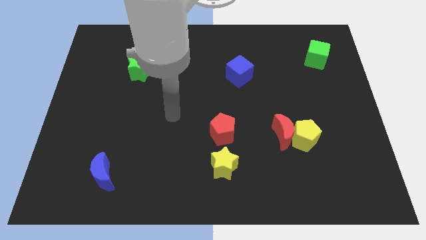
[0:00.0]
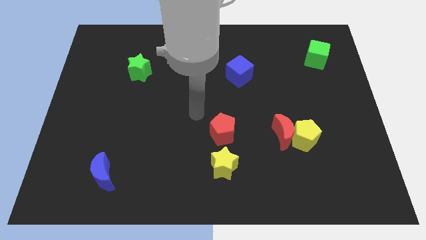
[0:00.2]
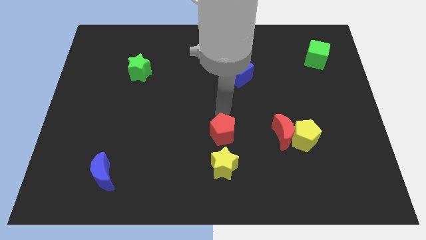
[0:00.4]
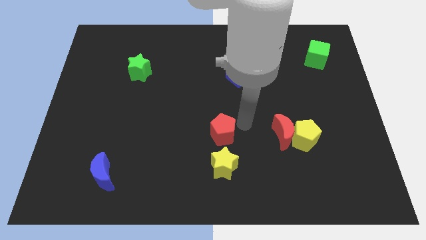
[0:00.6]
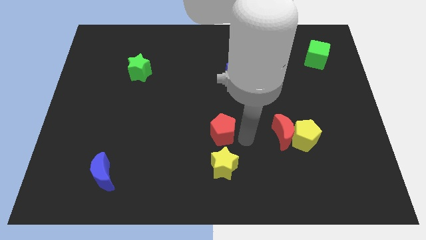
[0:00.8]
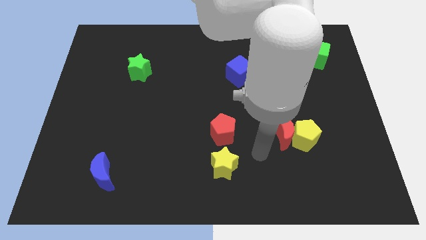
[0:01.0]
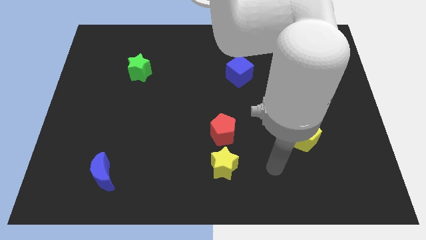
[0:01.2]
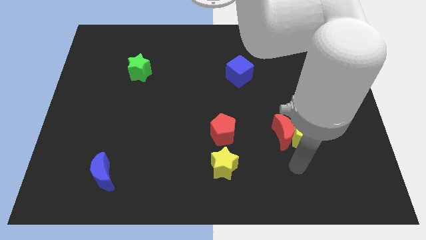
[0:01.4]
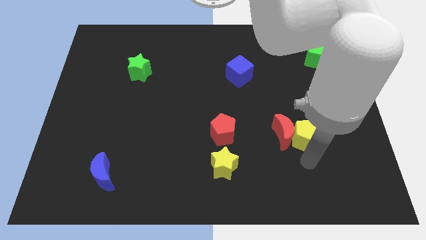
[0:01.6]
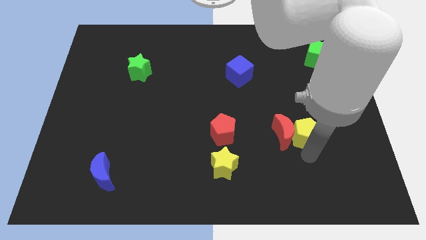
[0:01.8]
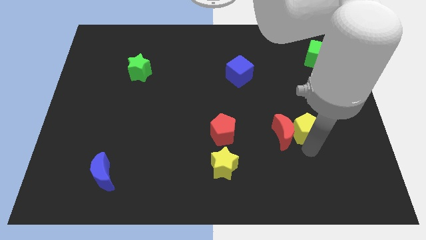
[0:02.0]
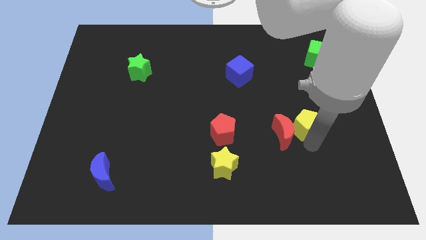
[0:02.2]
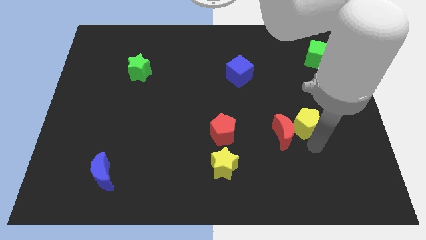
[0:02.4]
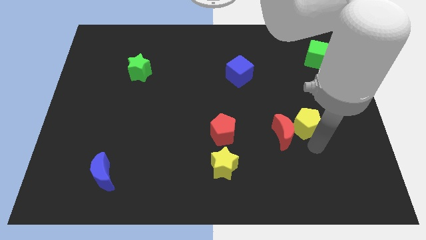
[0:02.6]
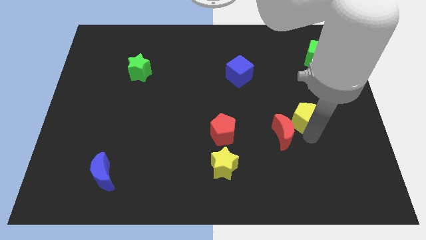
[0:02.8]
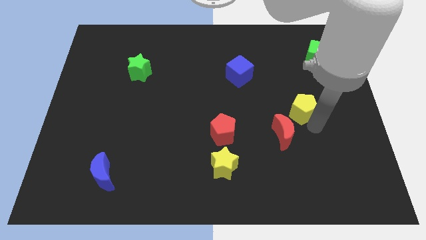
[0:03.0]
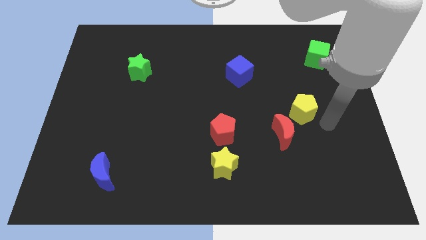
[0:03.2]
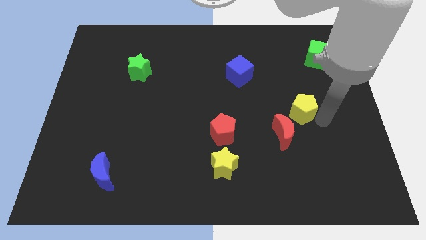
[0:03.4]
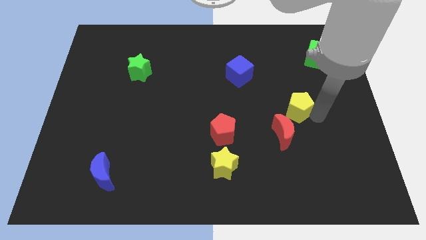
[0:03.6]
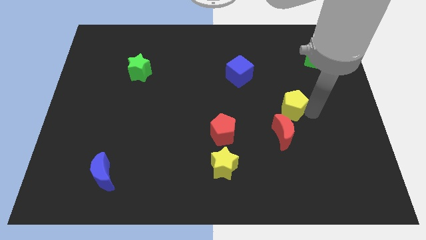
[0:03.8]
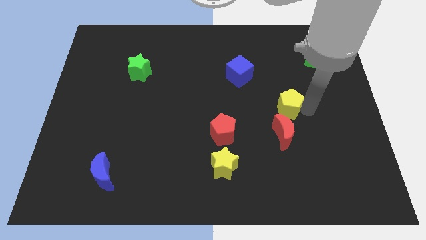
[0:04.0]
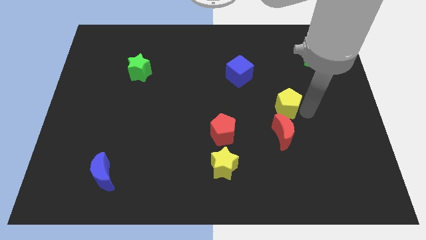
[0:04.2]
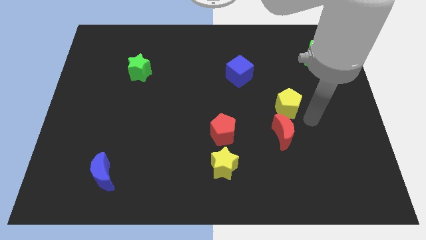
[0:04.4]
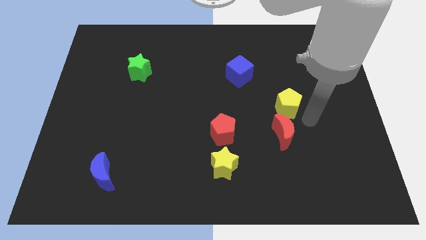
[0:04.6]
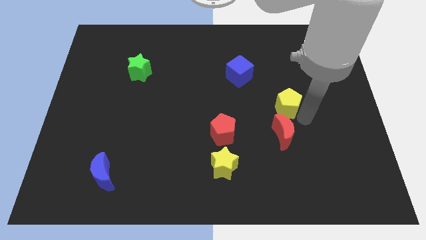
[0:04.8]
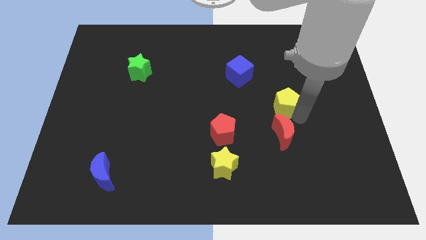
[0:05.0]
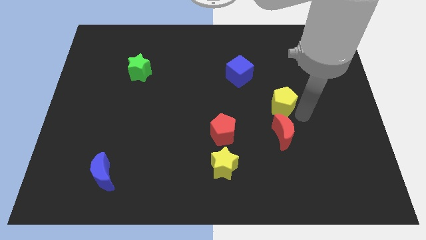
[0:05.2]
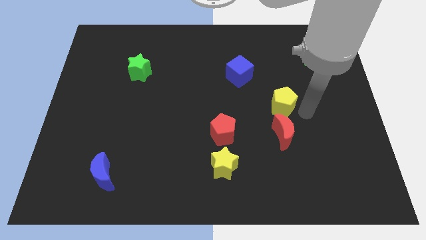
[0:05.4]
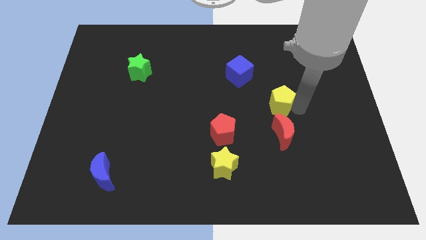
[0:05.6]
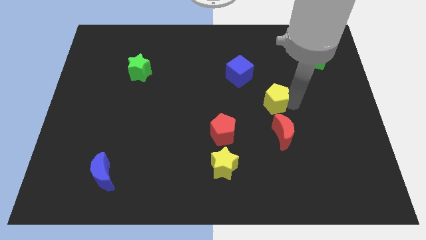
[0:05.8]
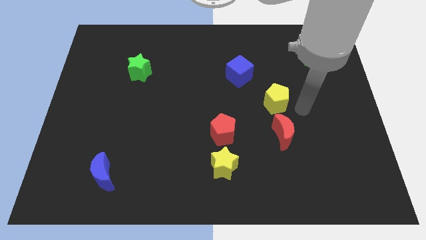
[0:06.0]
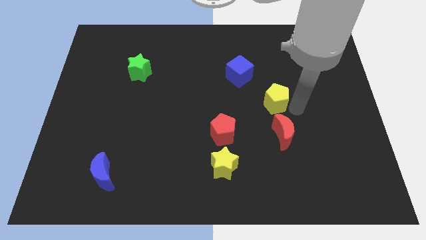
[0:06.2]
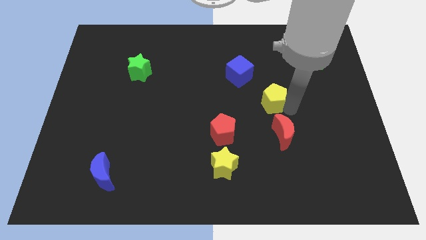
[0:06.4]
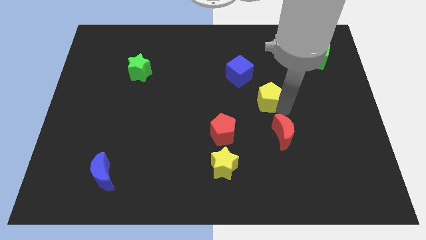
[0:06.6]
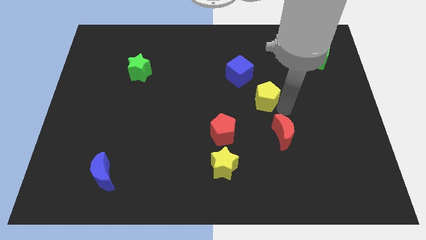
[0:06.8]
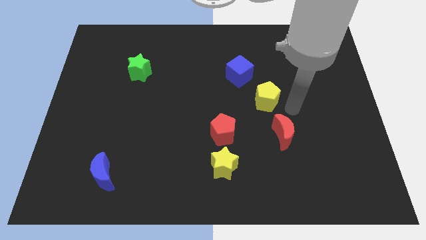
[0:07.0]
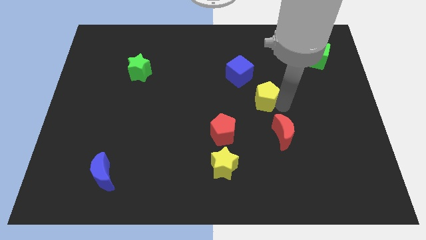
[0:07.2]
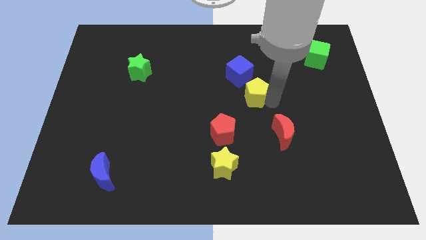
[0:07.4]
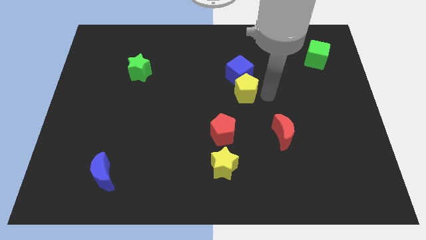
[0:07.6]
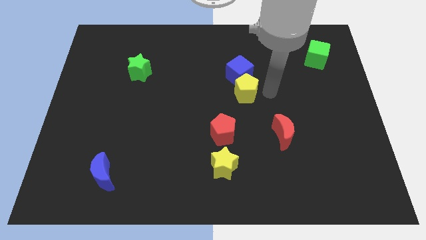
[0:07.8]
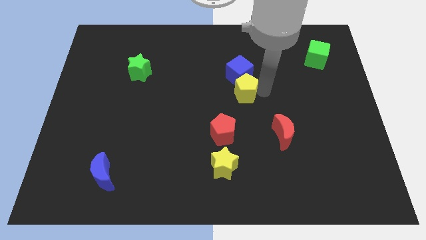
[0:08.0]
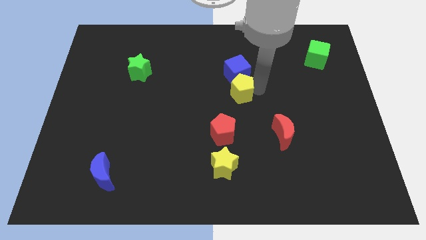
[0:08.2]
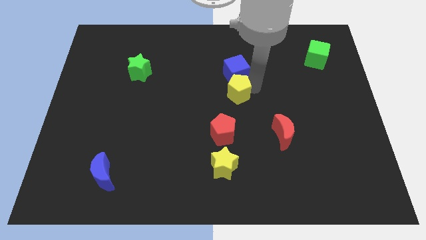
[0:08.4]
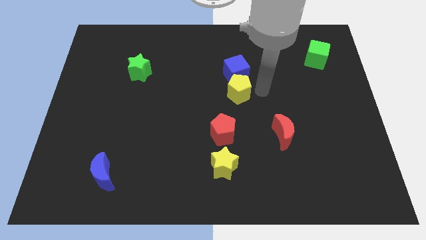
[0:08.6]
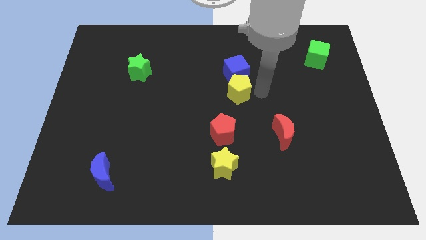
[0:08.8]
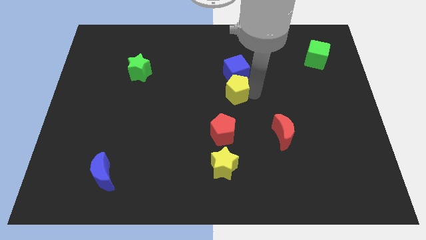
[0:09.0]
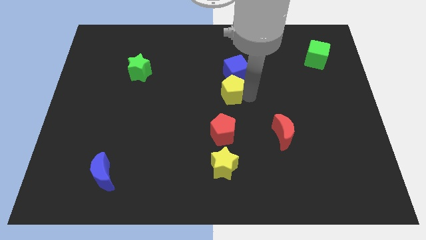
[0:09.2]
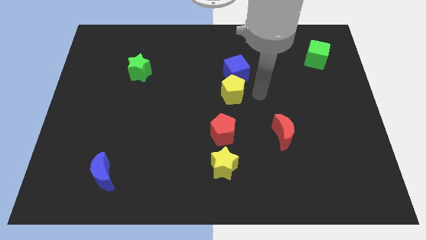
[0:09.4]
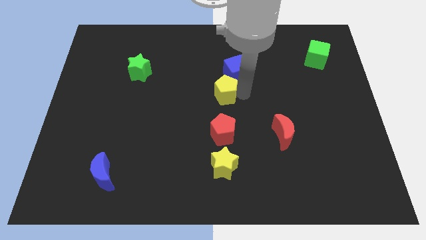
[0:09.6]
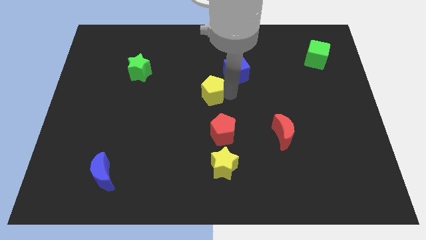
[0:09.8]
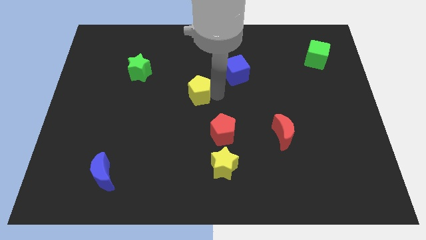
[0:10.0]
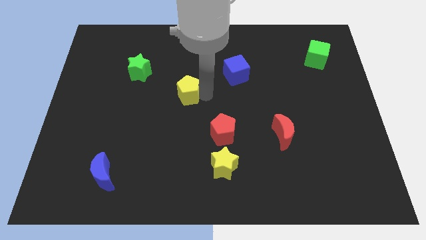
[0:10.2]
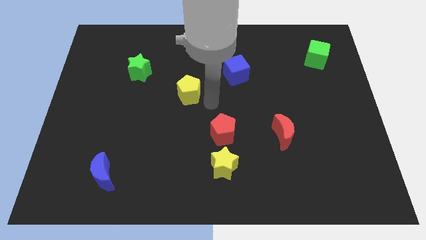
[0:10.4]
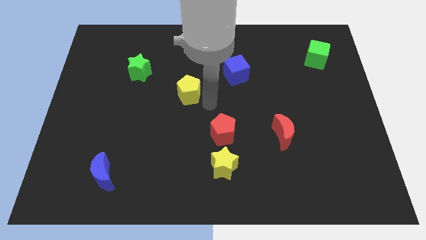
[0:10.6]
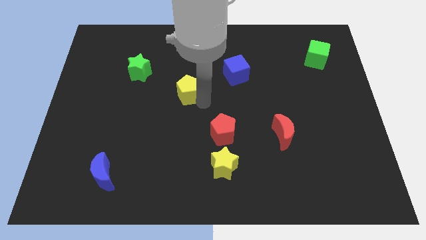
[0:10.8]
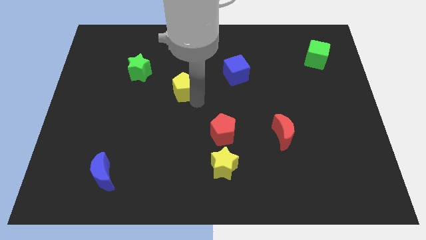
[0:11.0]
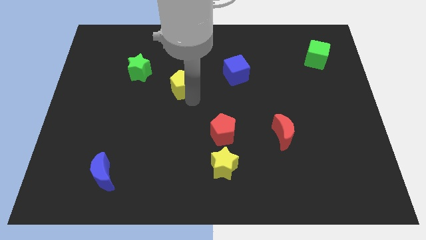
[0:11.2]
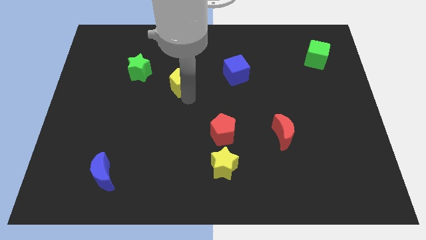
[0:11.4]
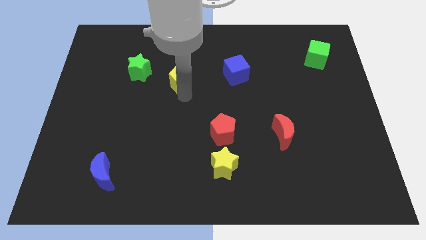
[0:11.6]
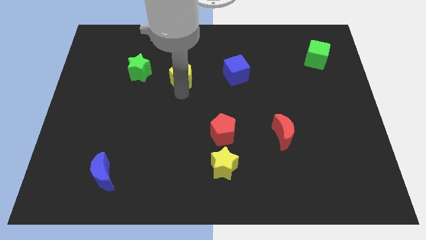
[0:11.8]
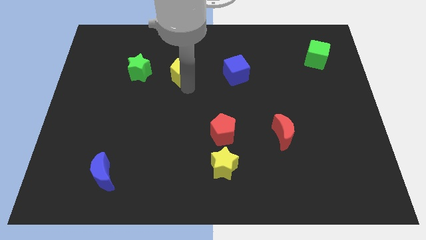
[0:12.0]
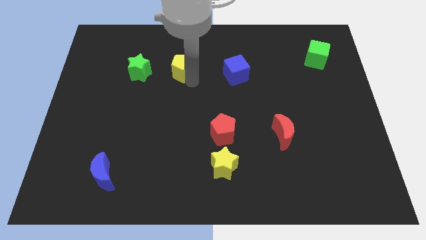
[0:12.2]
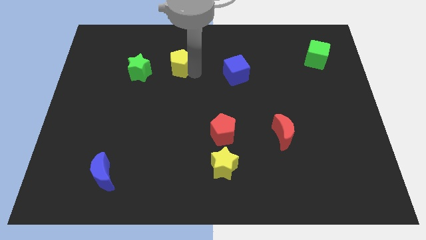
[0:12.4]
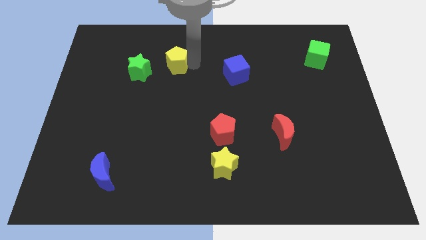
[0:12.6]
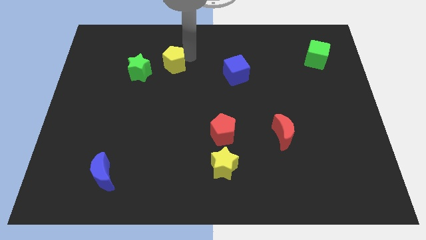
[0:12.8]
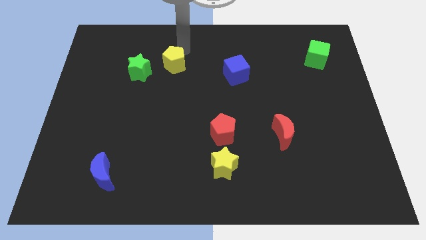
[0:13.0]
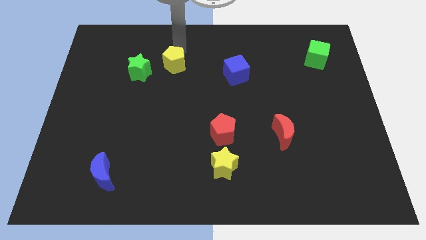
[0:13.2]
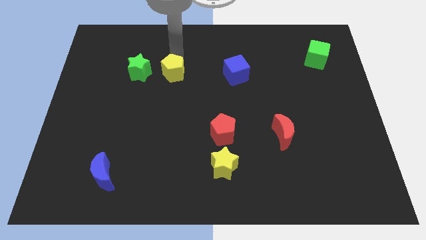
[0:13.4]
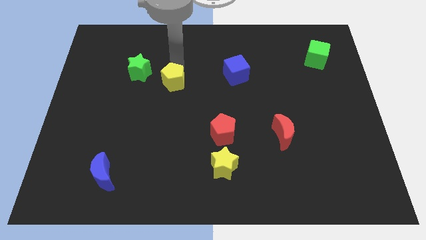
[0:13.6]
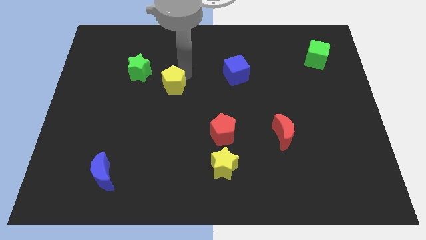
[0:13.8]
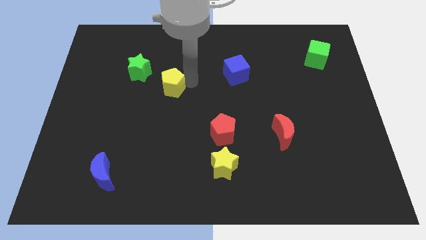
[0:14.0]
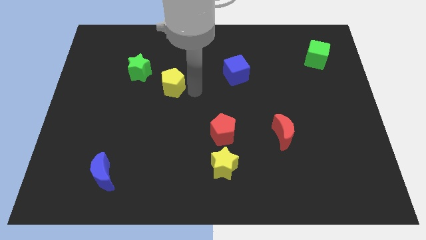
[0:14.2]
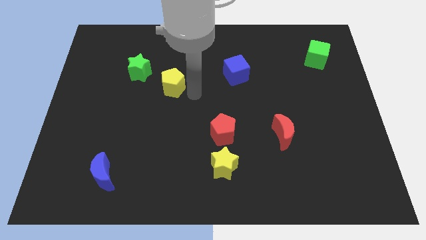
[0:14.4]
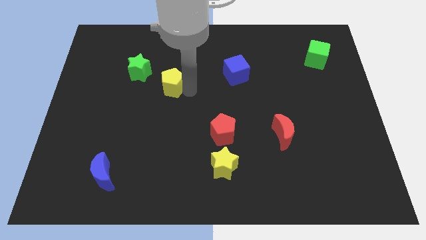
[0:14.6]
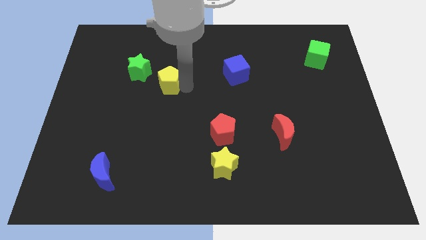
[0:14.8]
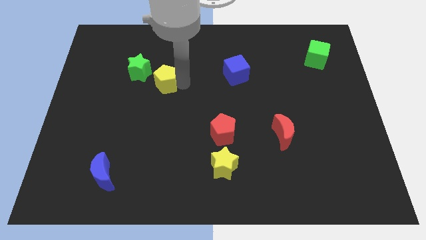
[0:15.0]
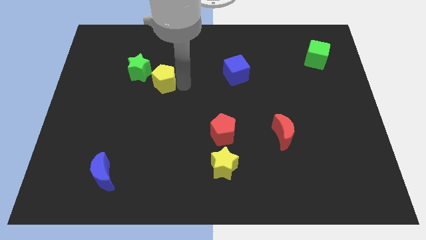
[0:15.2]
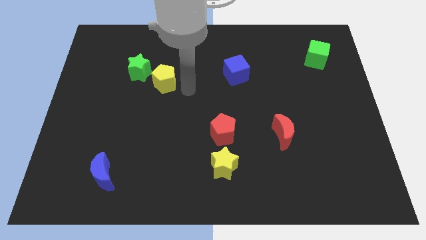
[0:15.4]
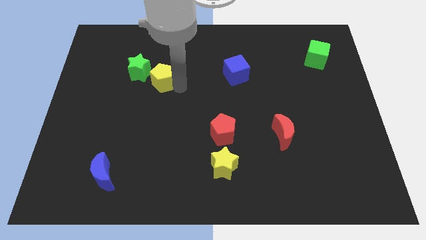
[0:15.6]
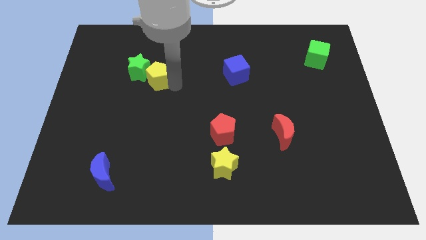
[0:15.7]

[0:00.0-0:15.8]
slide the yellow pentagon close to the green star
